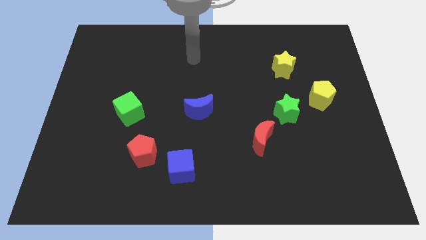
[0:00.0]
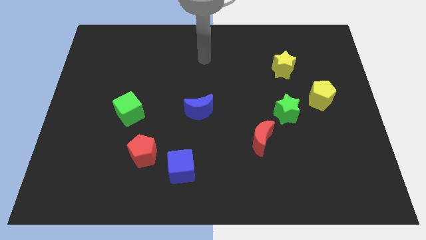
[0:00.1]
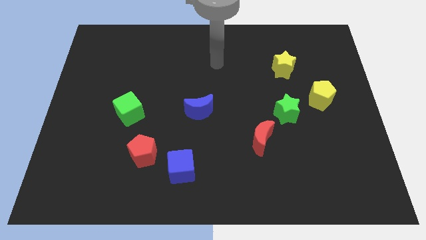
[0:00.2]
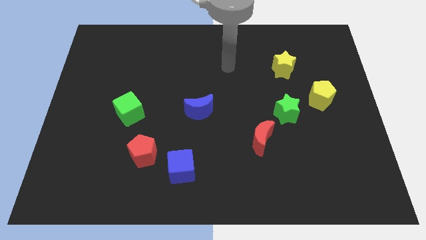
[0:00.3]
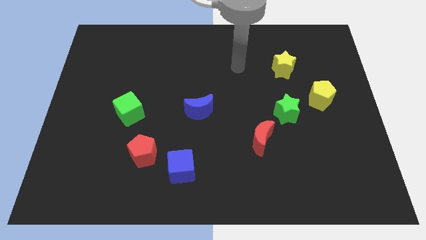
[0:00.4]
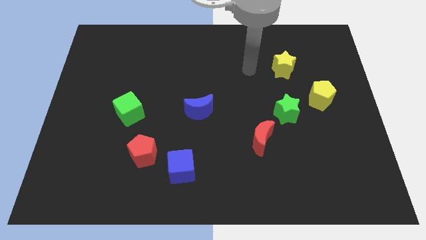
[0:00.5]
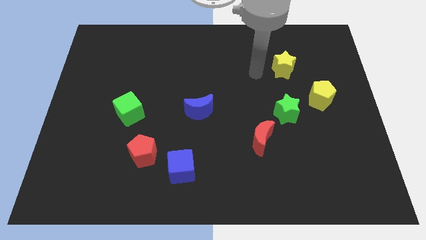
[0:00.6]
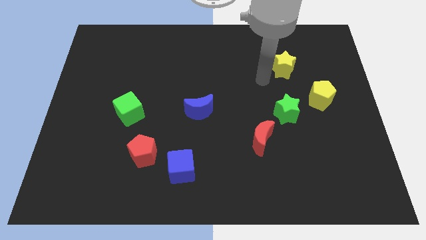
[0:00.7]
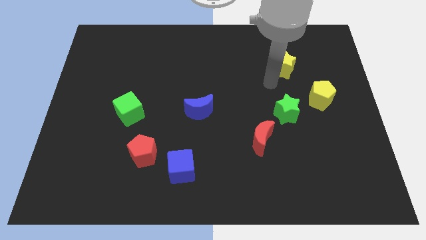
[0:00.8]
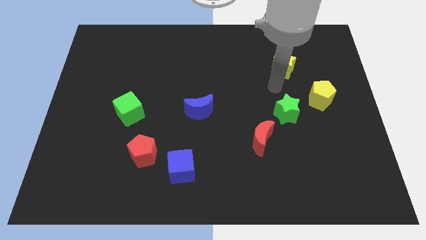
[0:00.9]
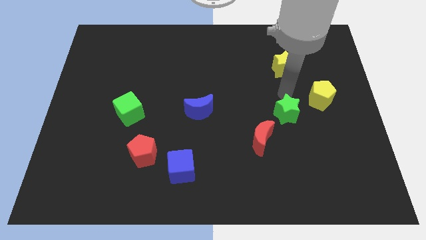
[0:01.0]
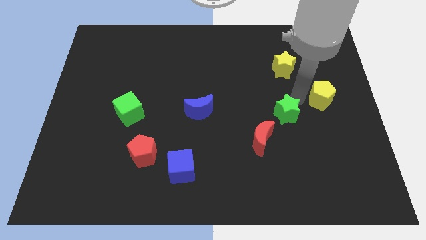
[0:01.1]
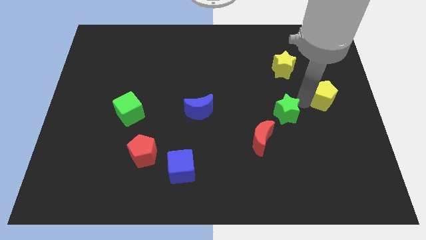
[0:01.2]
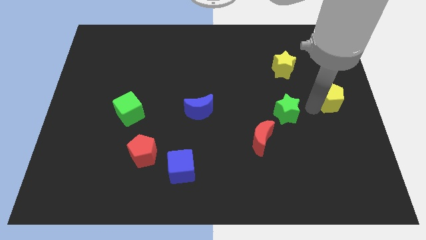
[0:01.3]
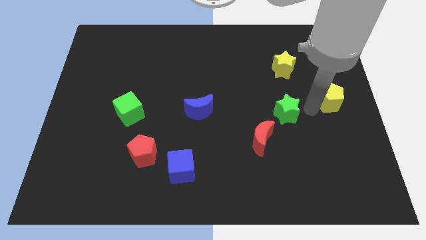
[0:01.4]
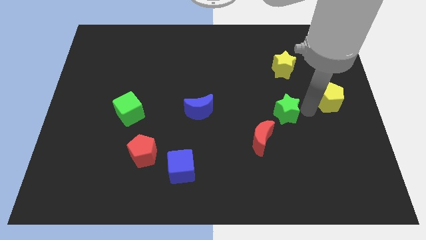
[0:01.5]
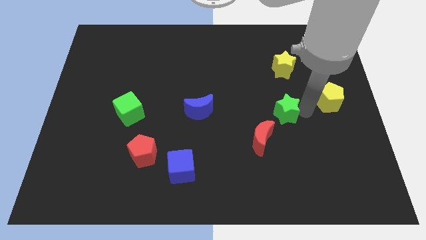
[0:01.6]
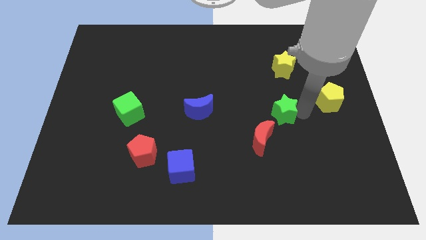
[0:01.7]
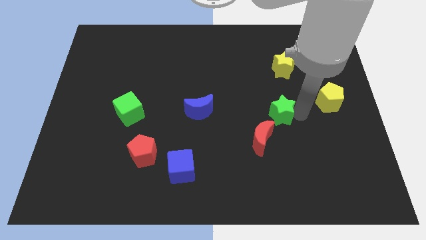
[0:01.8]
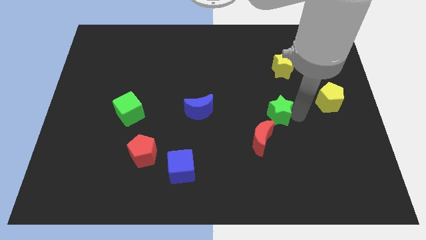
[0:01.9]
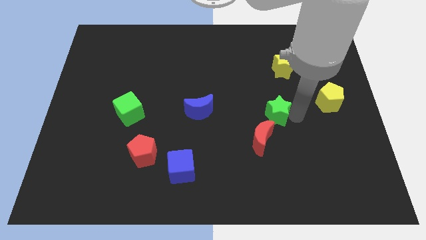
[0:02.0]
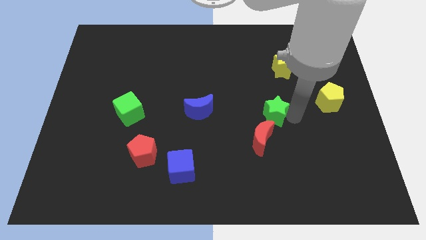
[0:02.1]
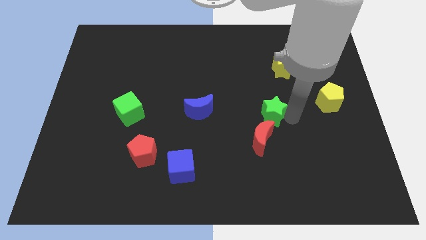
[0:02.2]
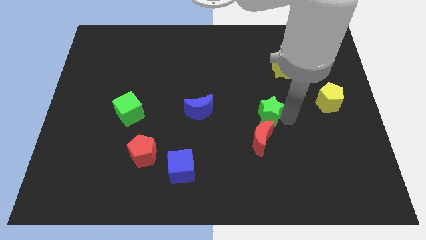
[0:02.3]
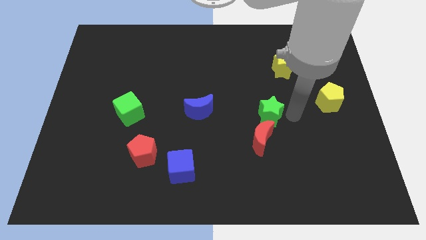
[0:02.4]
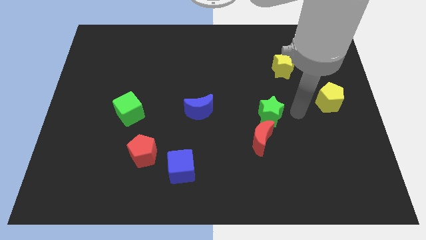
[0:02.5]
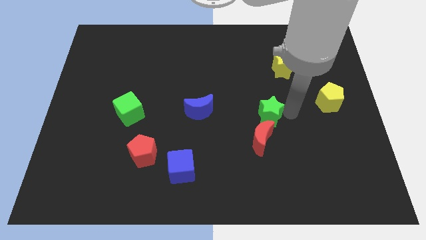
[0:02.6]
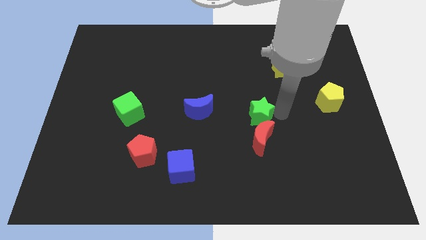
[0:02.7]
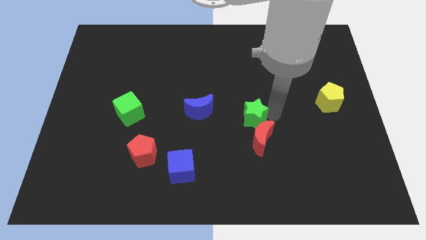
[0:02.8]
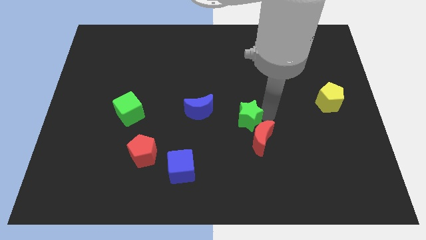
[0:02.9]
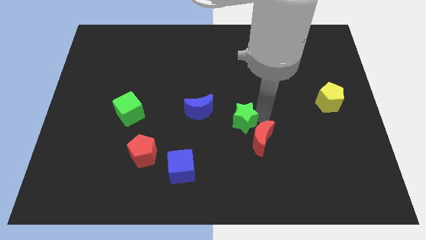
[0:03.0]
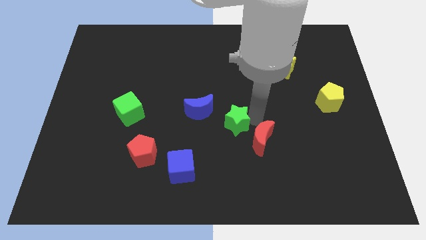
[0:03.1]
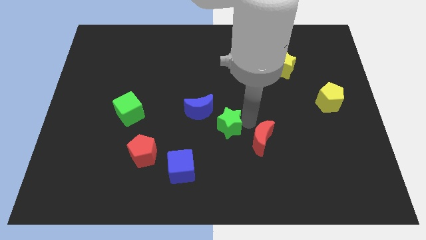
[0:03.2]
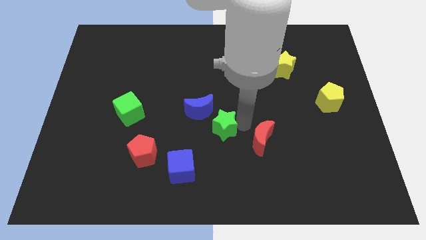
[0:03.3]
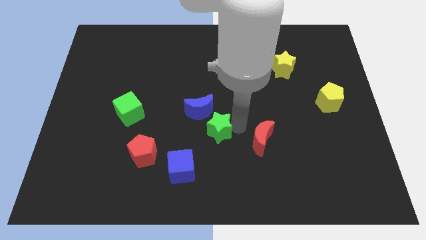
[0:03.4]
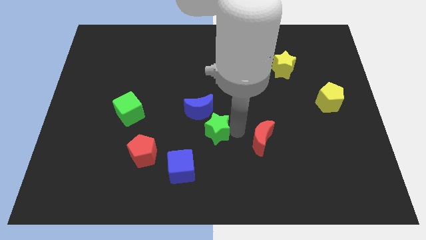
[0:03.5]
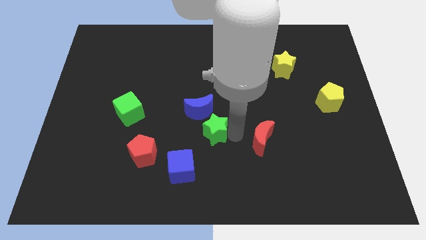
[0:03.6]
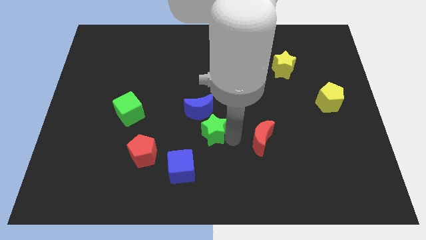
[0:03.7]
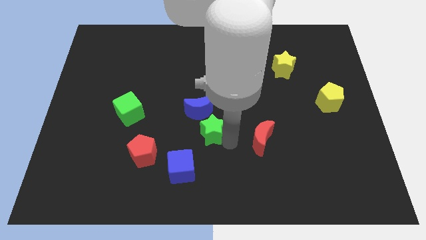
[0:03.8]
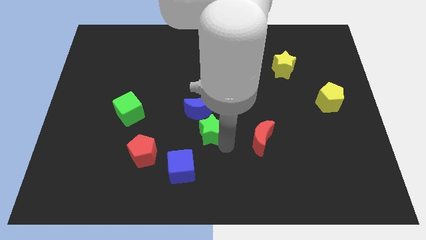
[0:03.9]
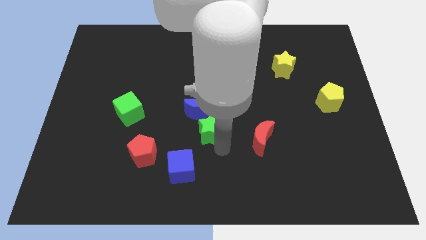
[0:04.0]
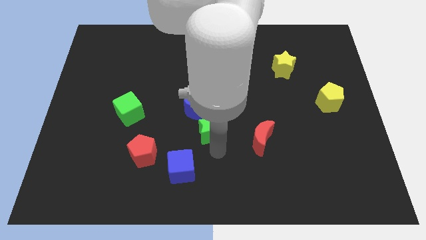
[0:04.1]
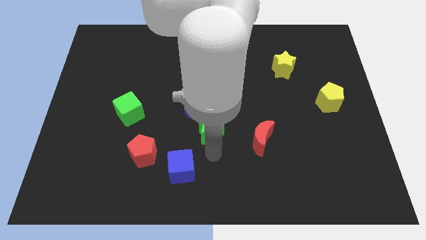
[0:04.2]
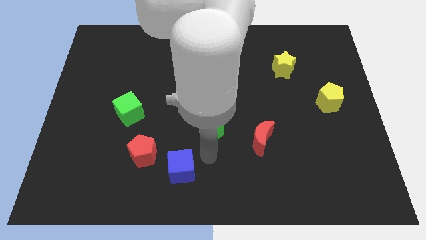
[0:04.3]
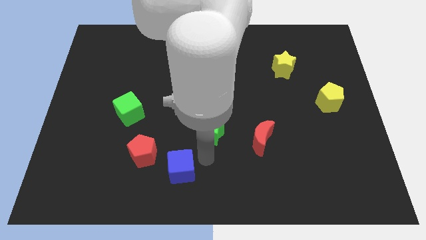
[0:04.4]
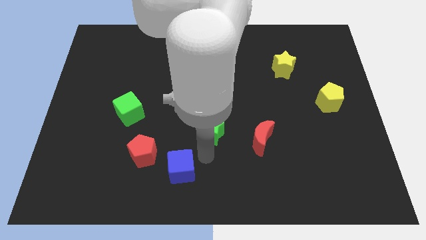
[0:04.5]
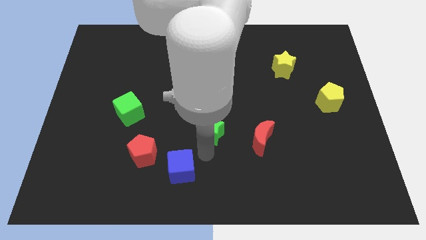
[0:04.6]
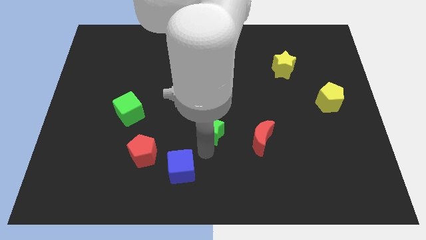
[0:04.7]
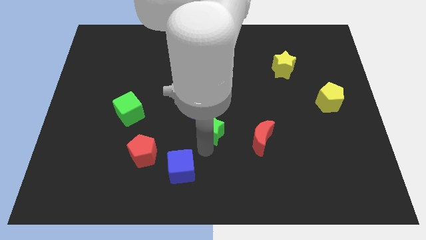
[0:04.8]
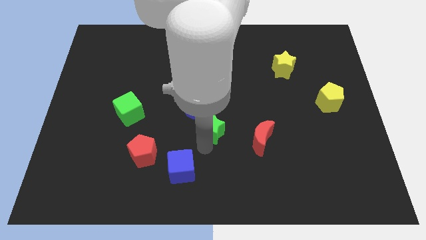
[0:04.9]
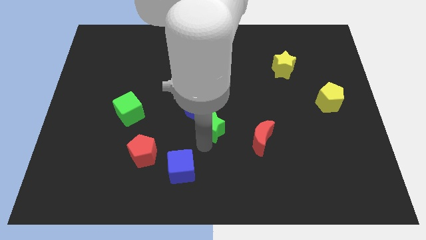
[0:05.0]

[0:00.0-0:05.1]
slide the green star close to the blue moon

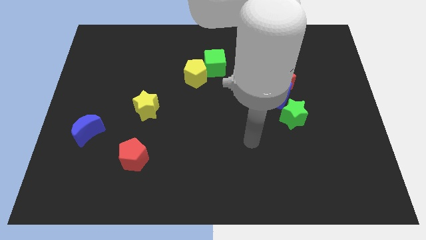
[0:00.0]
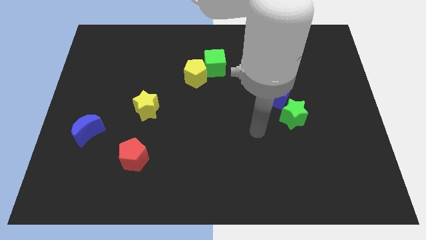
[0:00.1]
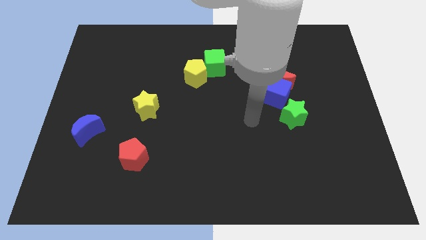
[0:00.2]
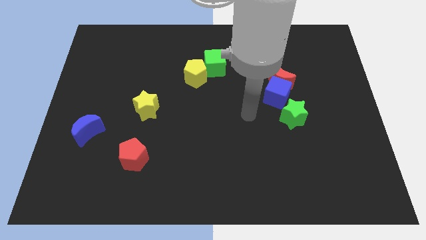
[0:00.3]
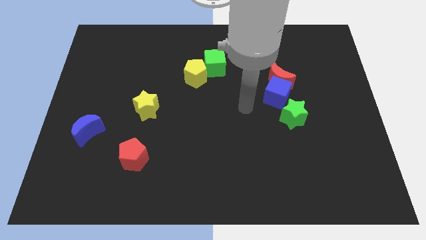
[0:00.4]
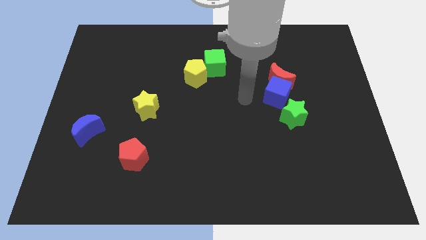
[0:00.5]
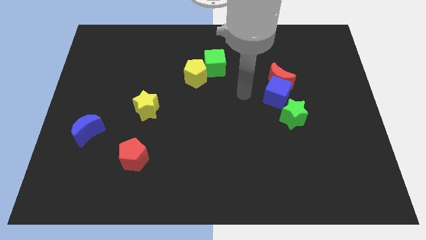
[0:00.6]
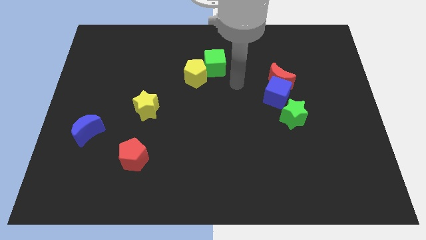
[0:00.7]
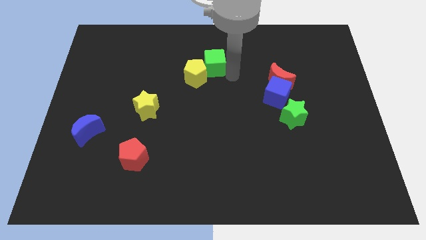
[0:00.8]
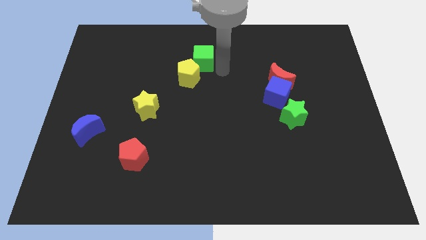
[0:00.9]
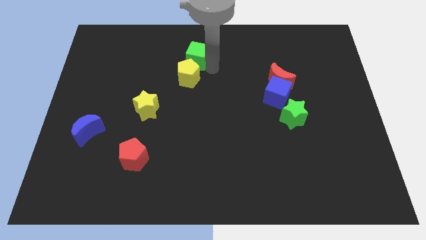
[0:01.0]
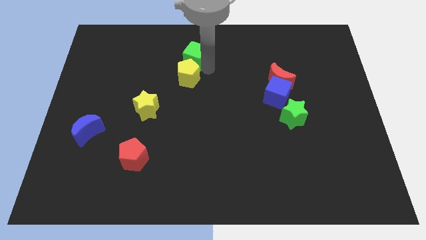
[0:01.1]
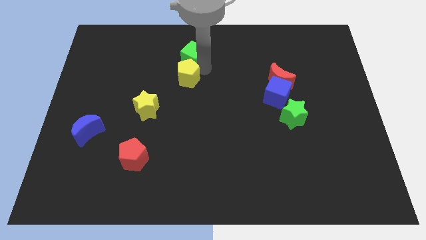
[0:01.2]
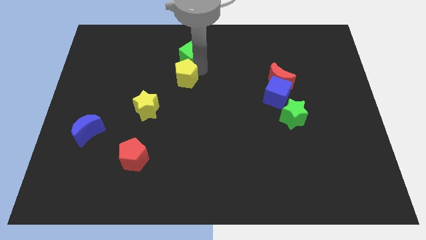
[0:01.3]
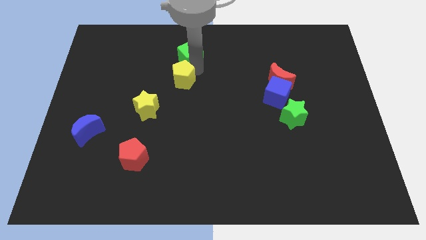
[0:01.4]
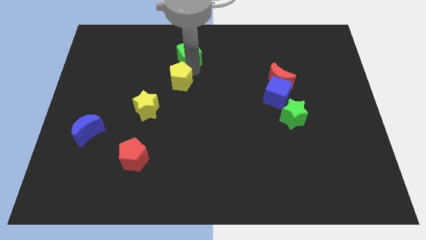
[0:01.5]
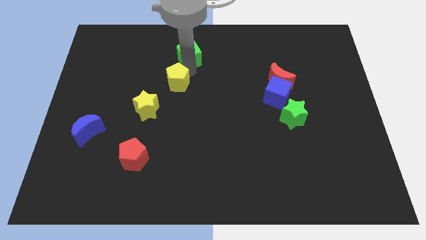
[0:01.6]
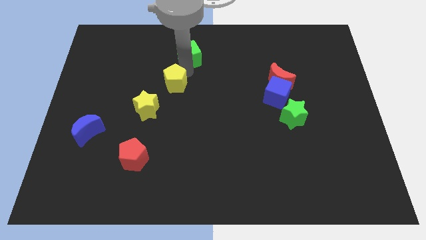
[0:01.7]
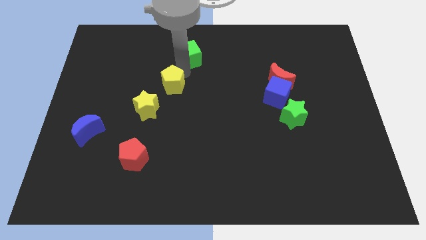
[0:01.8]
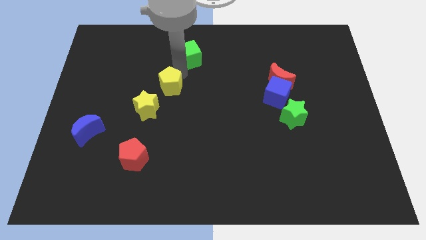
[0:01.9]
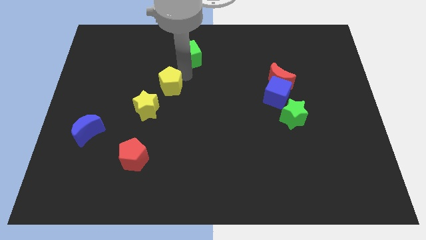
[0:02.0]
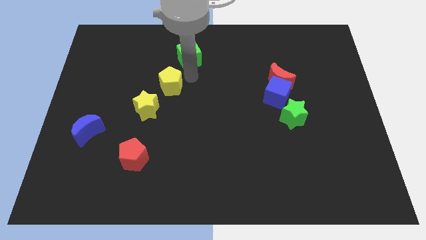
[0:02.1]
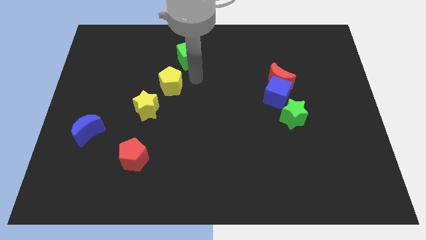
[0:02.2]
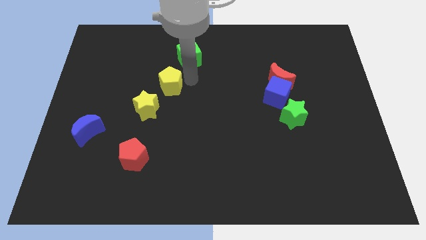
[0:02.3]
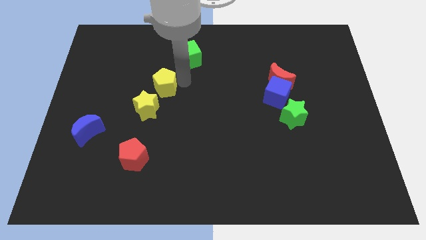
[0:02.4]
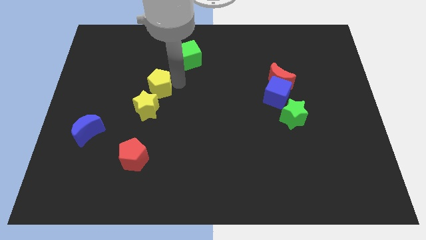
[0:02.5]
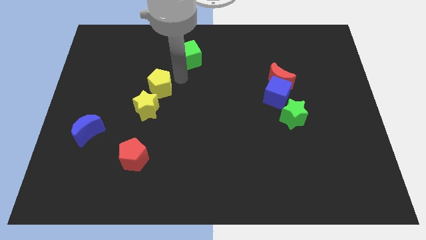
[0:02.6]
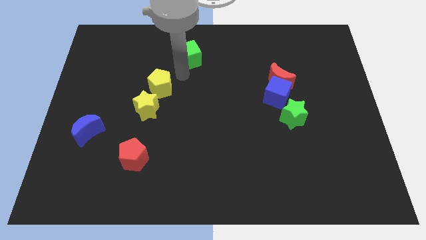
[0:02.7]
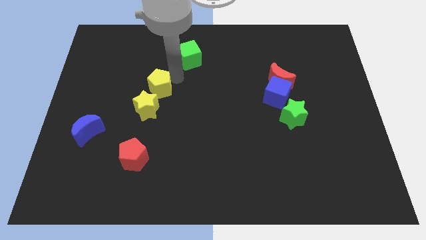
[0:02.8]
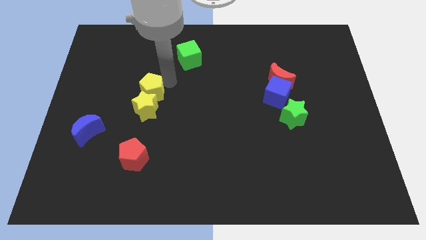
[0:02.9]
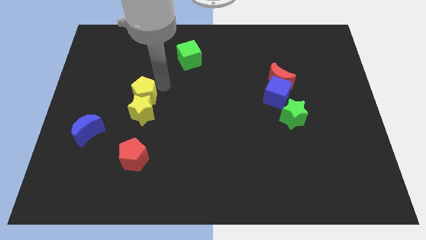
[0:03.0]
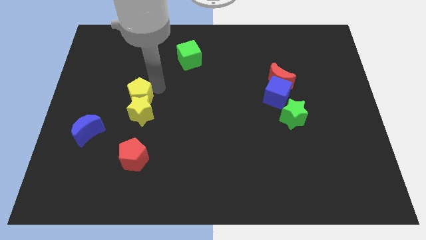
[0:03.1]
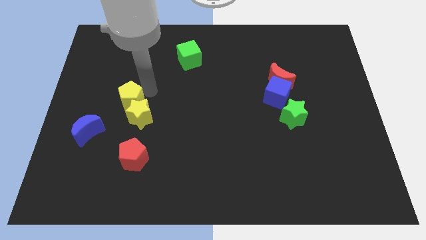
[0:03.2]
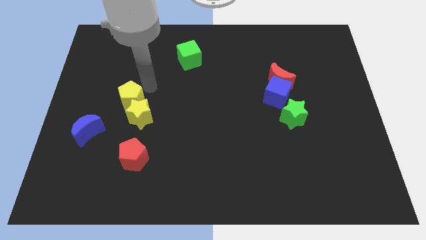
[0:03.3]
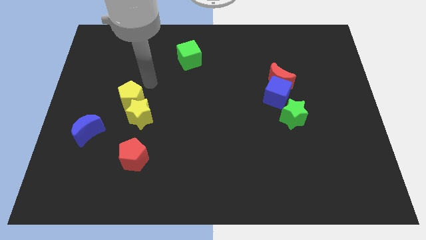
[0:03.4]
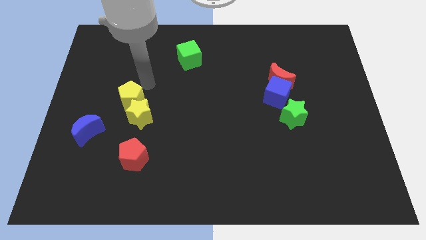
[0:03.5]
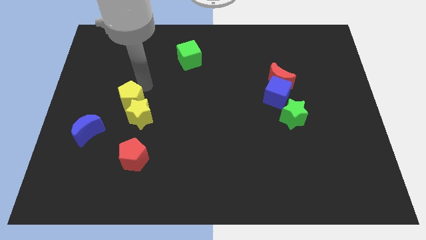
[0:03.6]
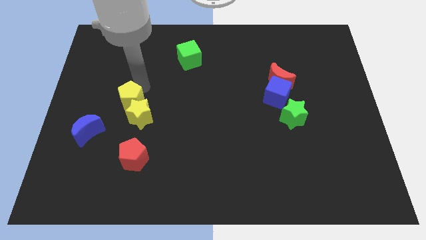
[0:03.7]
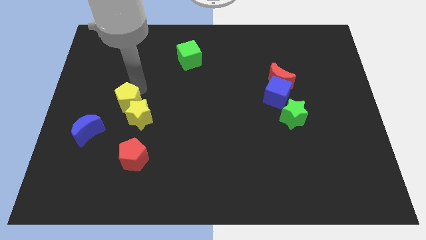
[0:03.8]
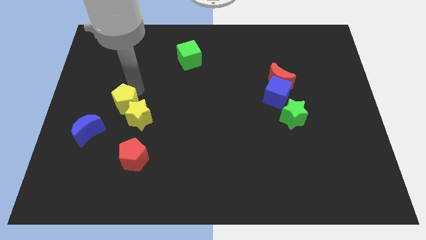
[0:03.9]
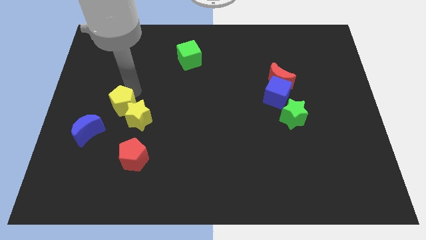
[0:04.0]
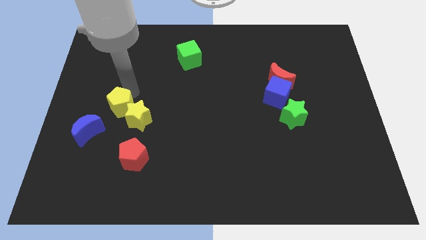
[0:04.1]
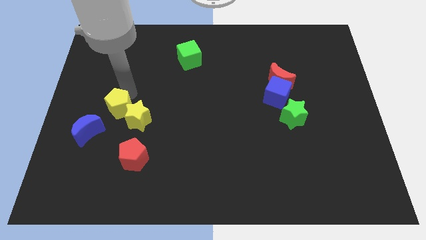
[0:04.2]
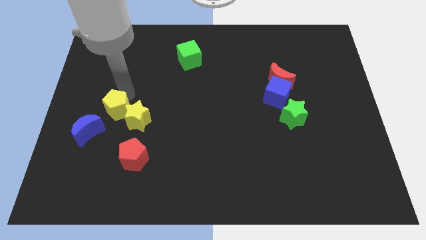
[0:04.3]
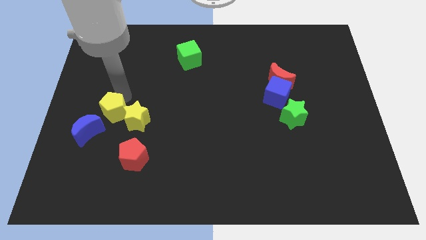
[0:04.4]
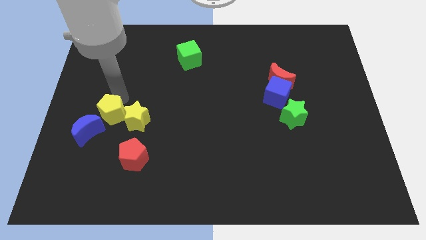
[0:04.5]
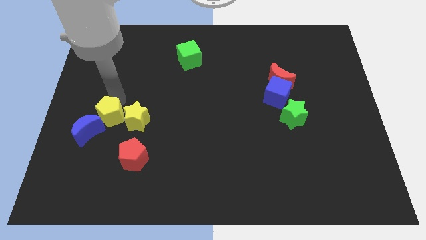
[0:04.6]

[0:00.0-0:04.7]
slide the yellow pentagon close to the blue moon
